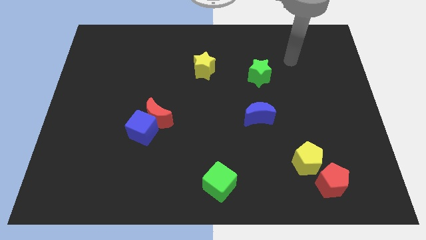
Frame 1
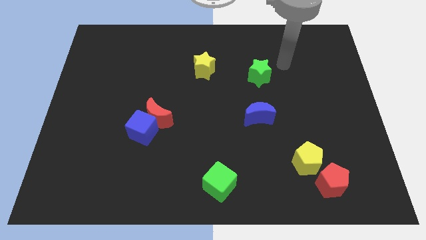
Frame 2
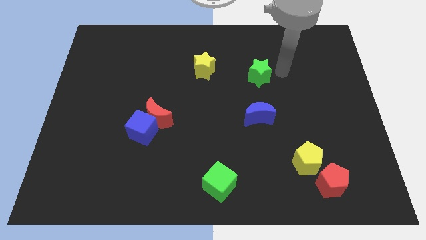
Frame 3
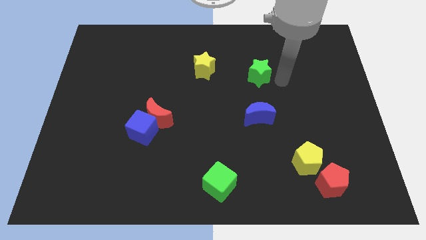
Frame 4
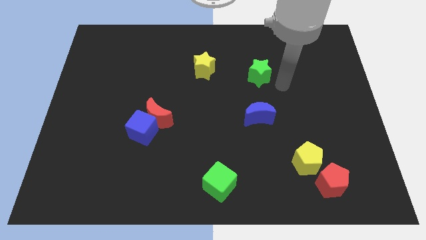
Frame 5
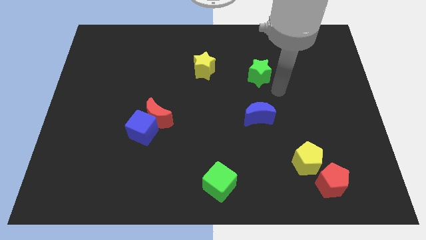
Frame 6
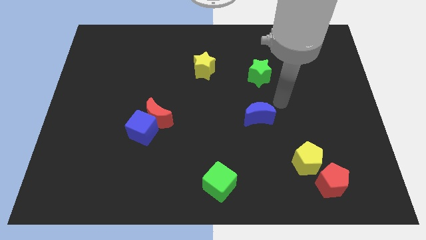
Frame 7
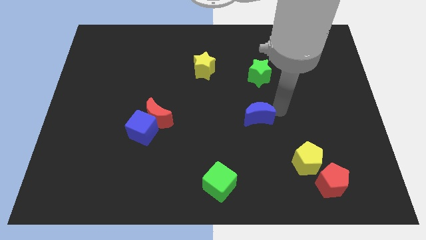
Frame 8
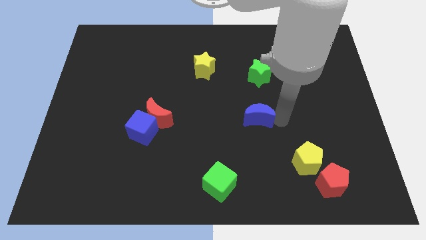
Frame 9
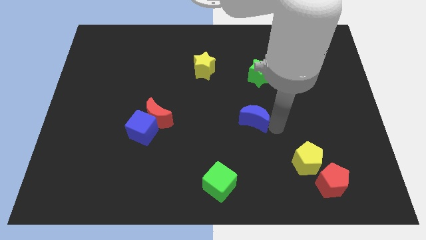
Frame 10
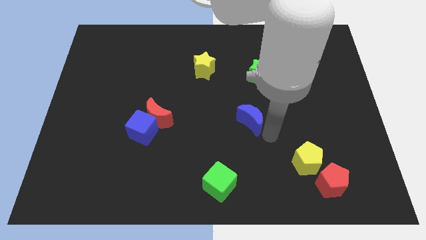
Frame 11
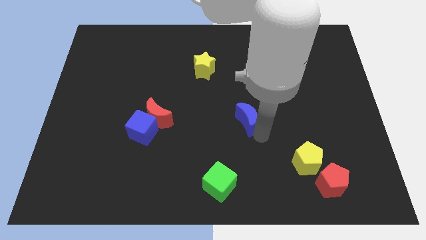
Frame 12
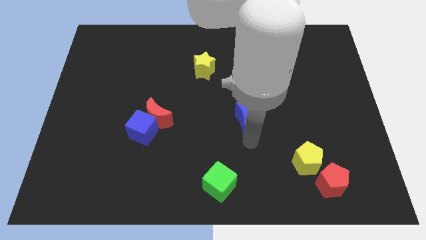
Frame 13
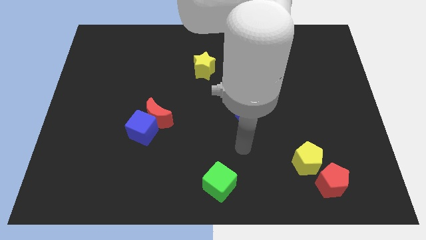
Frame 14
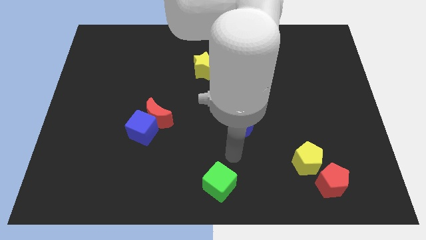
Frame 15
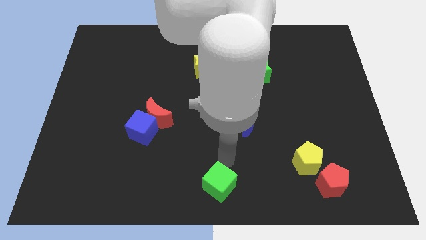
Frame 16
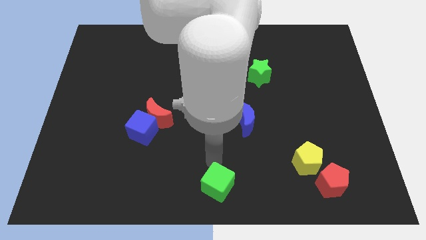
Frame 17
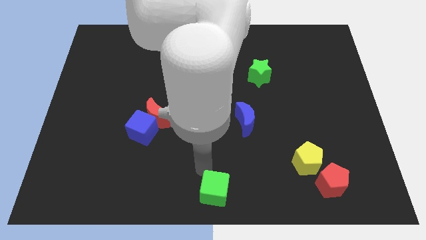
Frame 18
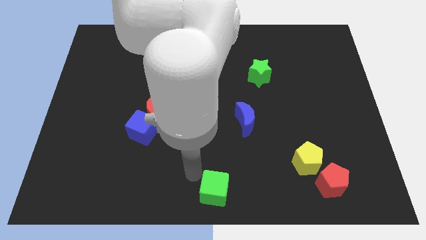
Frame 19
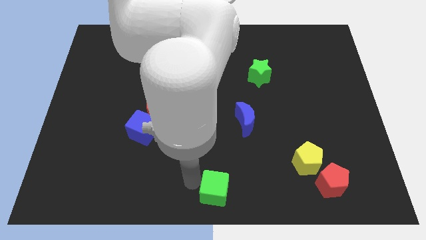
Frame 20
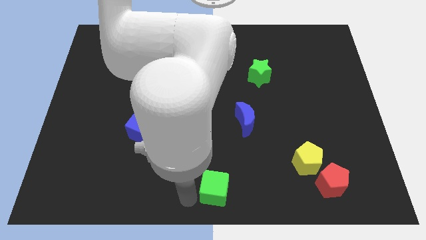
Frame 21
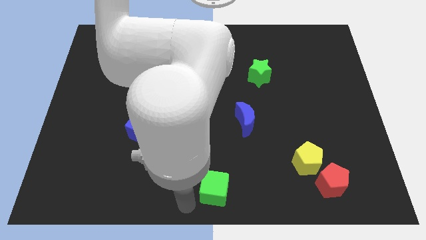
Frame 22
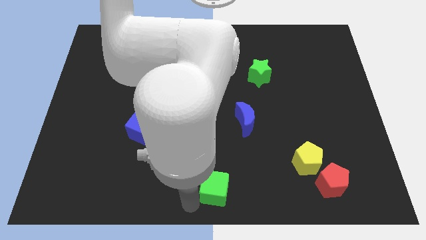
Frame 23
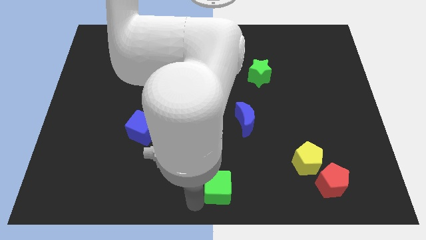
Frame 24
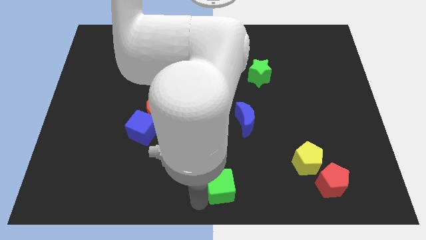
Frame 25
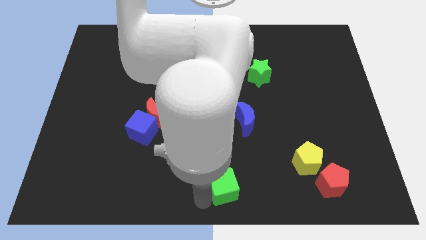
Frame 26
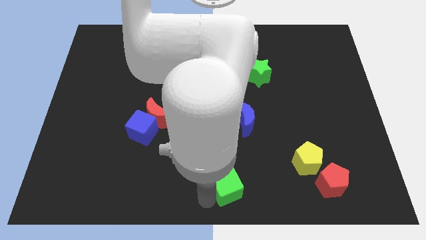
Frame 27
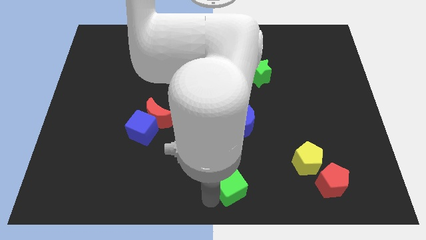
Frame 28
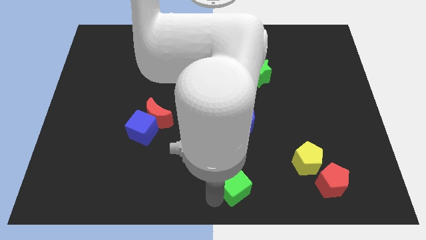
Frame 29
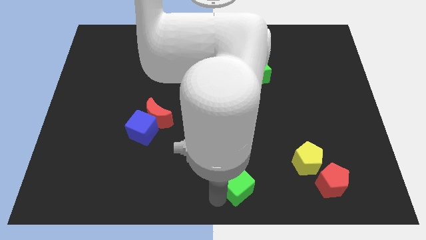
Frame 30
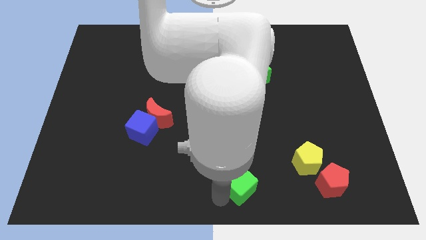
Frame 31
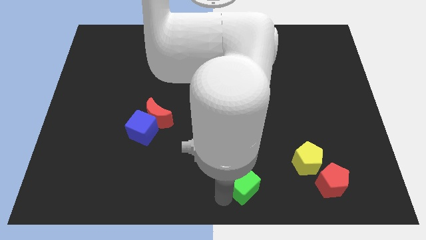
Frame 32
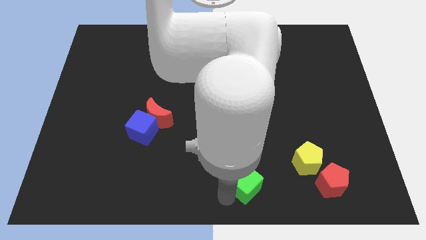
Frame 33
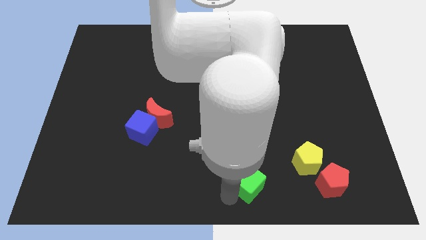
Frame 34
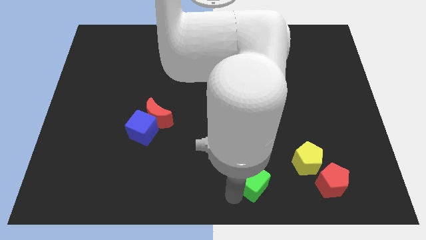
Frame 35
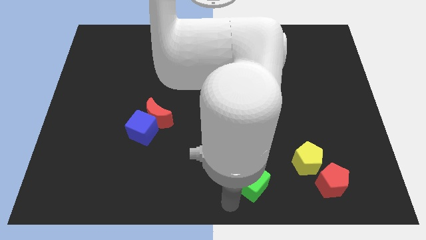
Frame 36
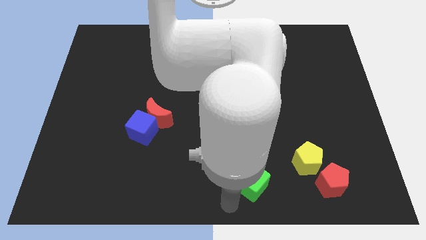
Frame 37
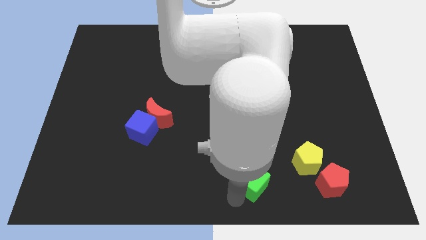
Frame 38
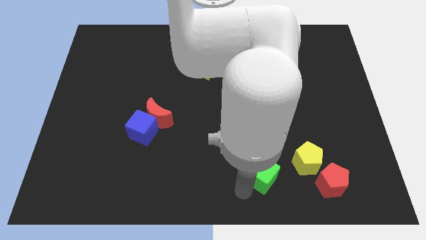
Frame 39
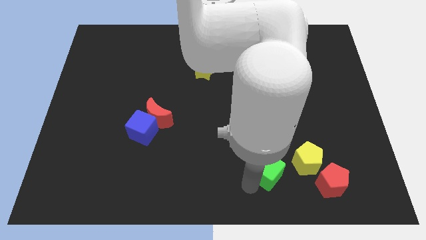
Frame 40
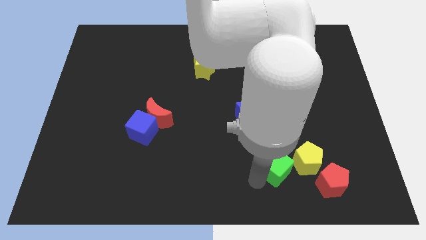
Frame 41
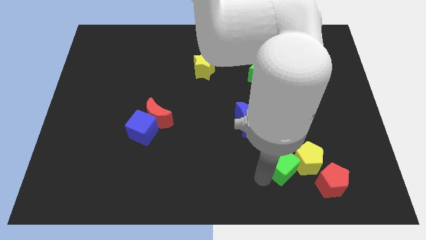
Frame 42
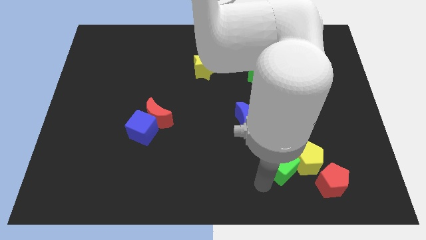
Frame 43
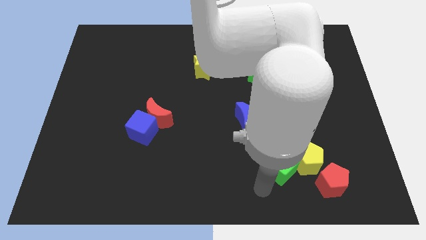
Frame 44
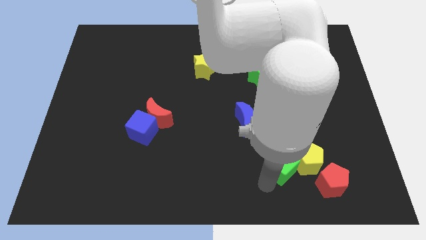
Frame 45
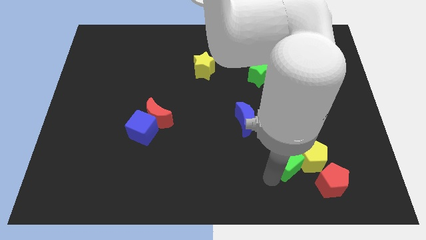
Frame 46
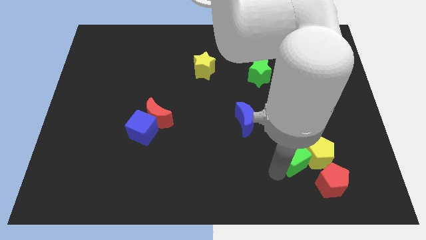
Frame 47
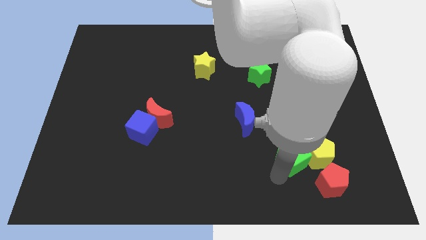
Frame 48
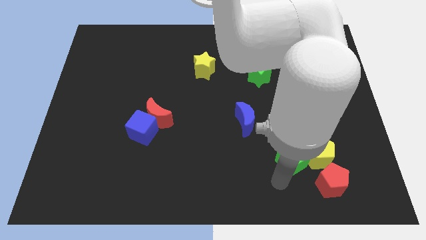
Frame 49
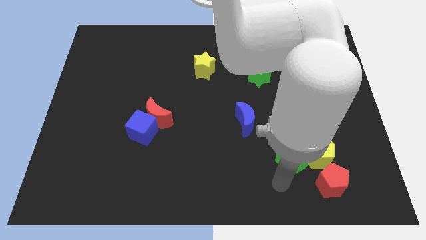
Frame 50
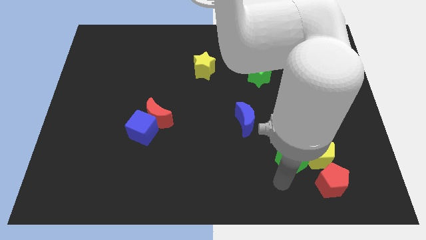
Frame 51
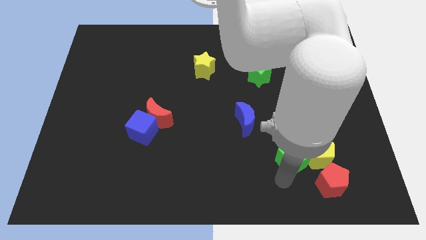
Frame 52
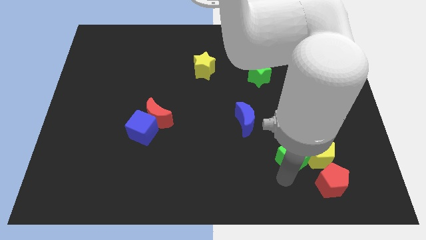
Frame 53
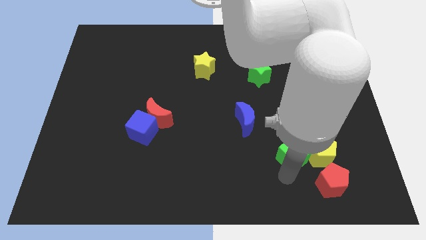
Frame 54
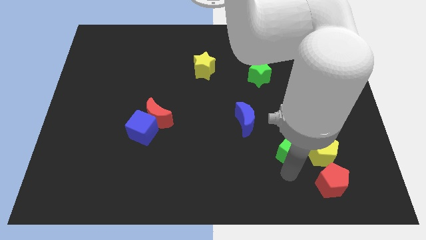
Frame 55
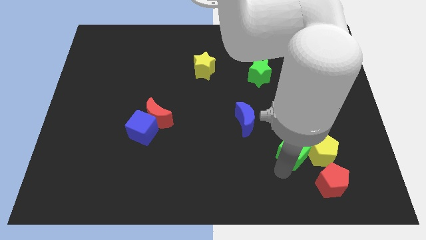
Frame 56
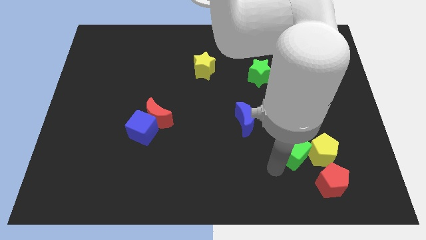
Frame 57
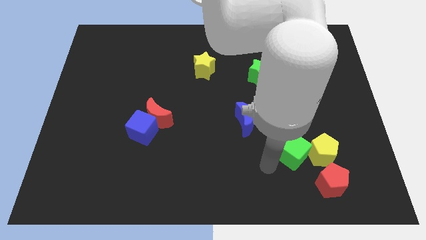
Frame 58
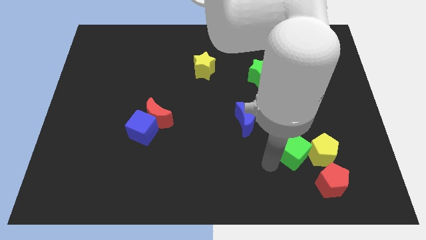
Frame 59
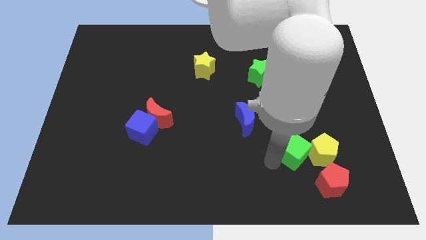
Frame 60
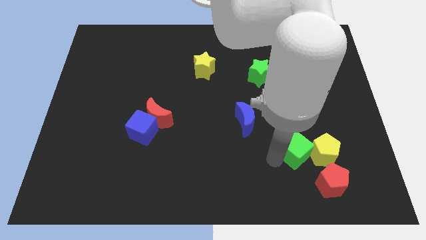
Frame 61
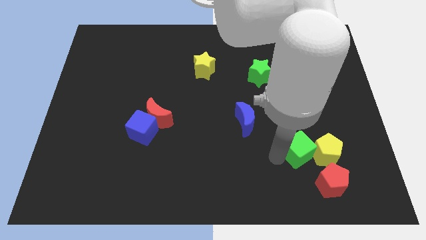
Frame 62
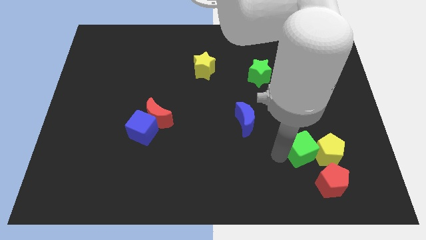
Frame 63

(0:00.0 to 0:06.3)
slide the green cube above the red pentagon

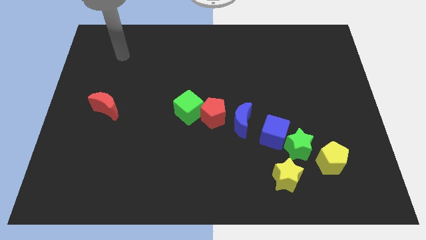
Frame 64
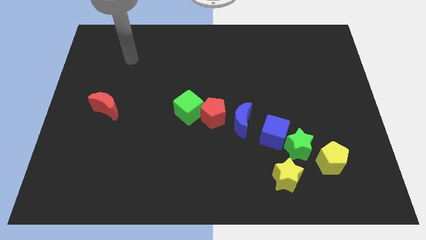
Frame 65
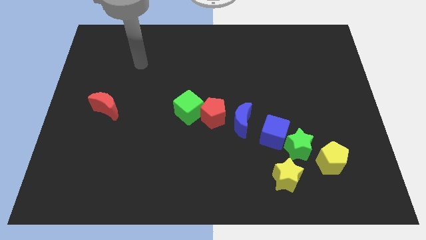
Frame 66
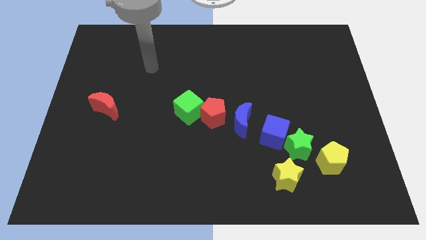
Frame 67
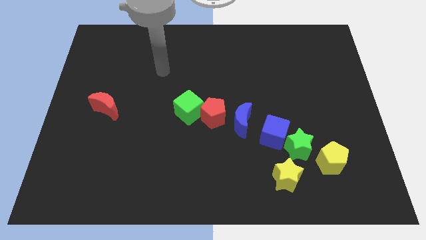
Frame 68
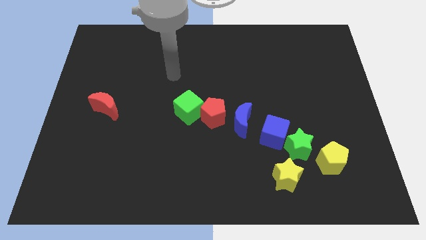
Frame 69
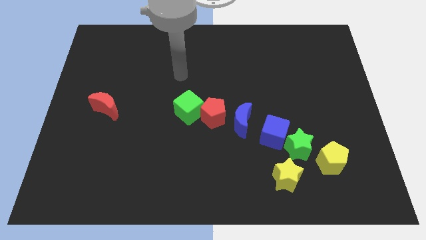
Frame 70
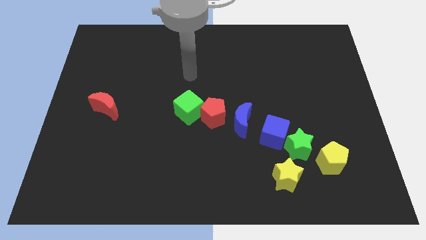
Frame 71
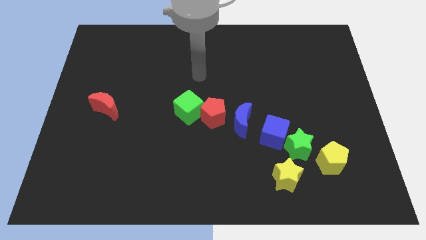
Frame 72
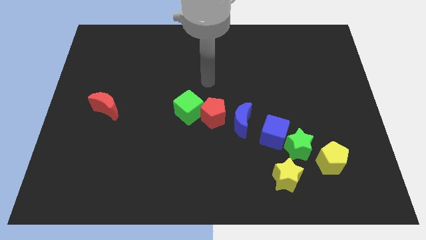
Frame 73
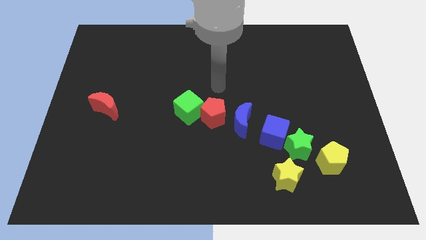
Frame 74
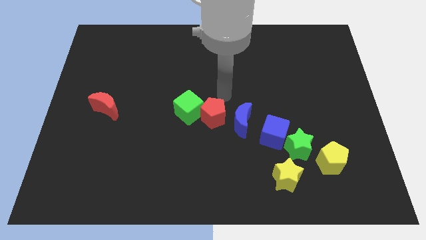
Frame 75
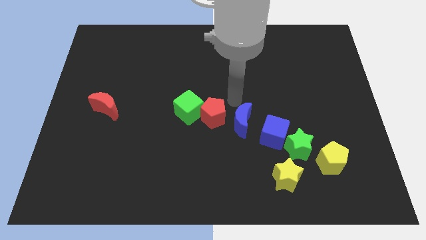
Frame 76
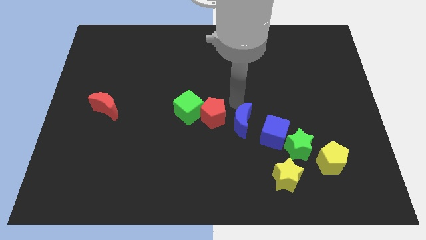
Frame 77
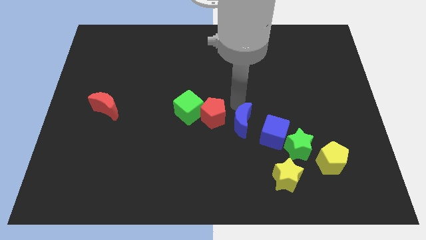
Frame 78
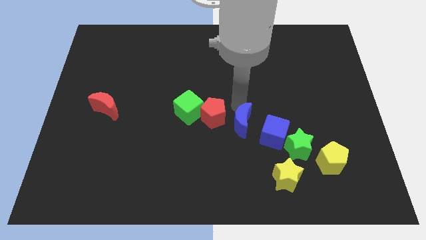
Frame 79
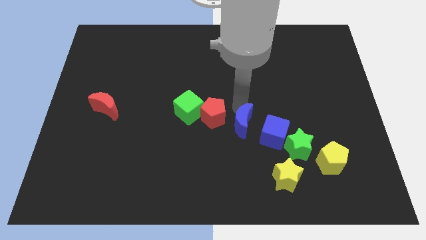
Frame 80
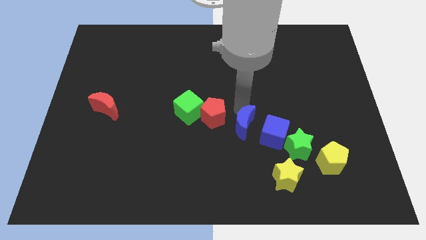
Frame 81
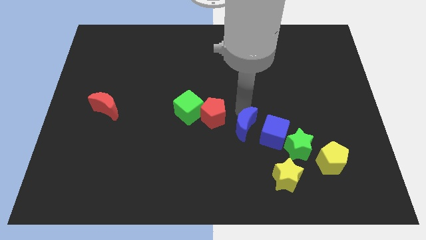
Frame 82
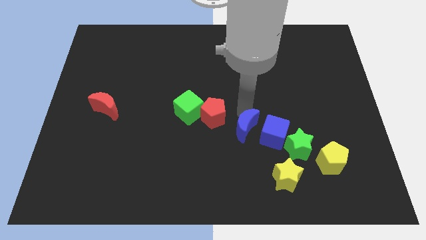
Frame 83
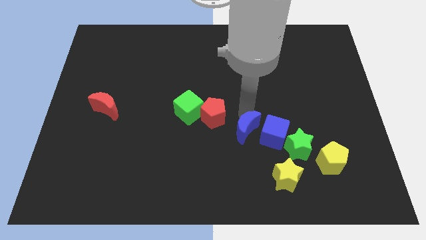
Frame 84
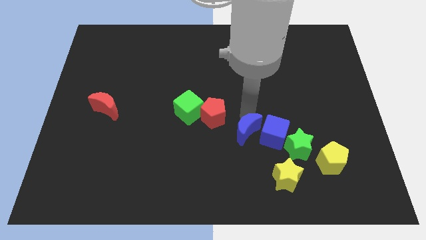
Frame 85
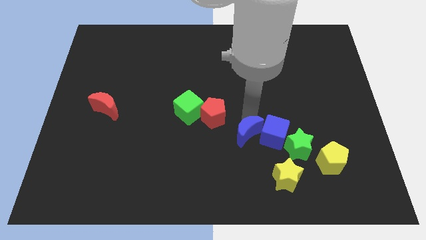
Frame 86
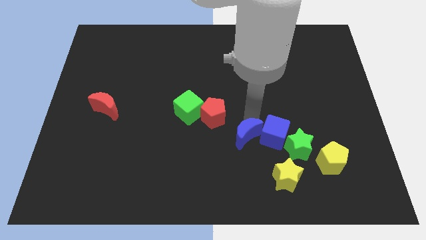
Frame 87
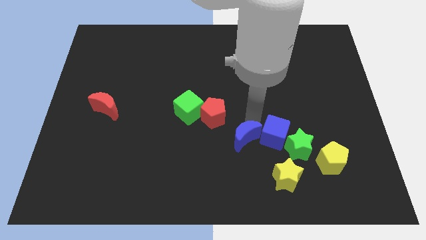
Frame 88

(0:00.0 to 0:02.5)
slide the blue moon to the top left of the yellow star
